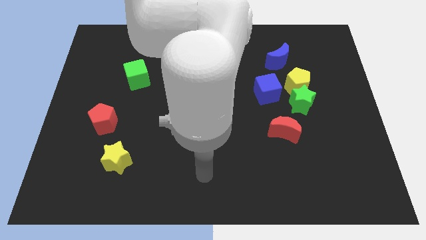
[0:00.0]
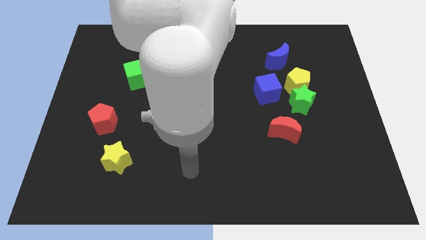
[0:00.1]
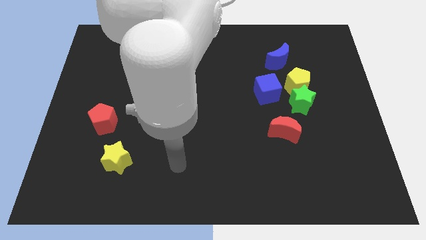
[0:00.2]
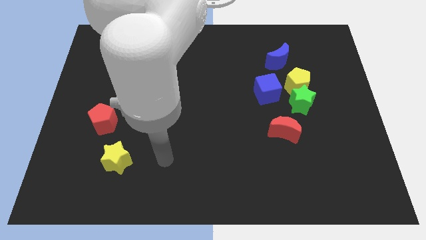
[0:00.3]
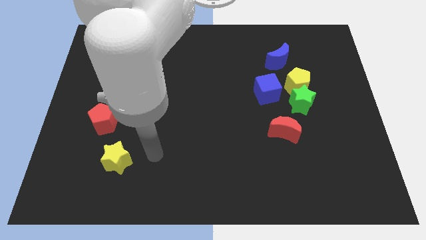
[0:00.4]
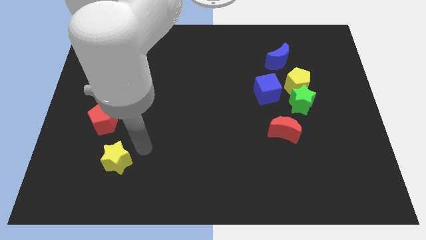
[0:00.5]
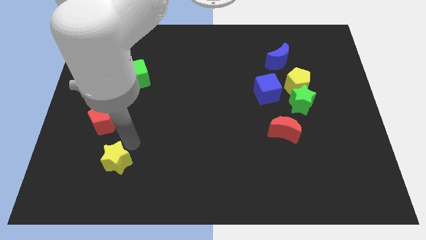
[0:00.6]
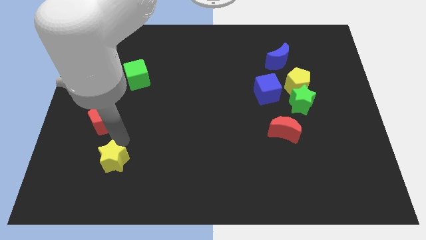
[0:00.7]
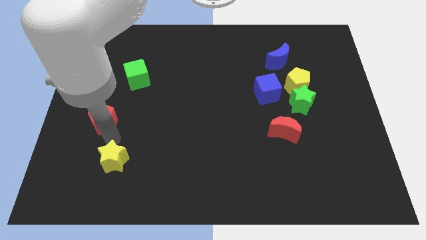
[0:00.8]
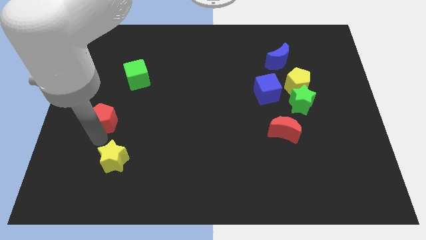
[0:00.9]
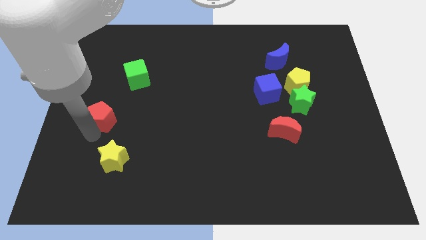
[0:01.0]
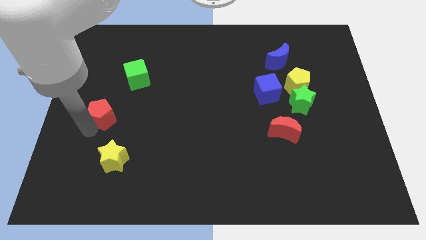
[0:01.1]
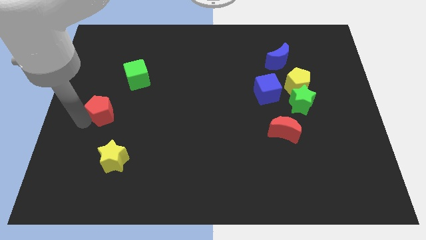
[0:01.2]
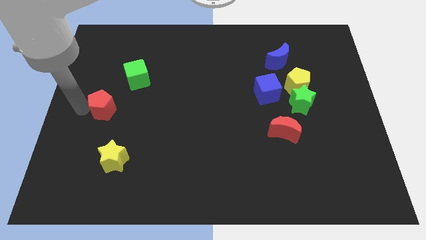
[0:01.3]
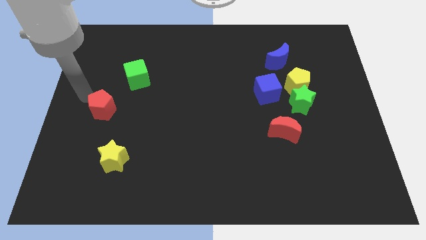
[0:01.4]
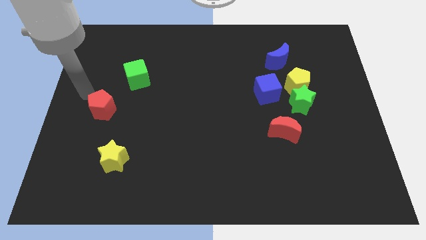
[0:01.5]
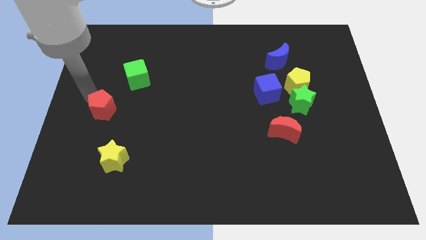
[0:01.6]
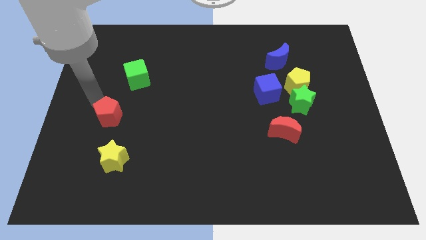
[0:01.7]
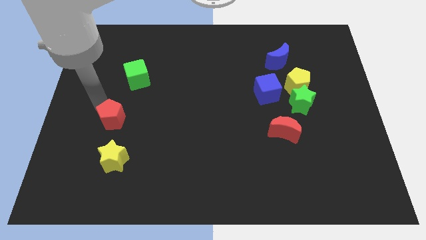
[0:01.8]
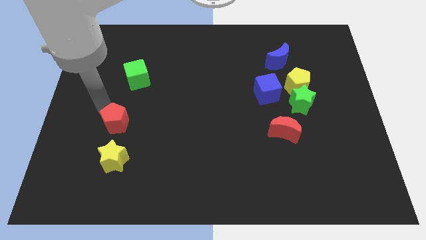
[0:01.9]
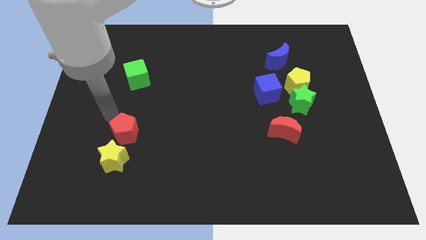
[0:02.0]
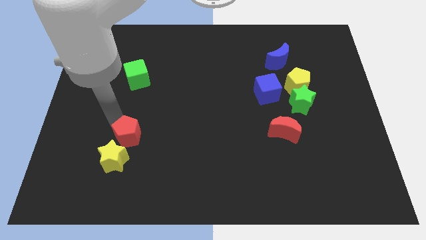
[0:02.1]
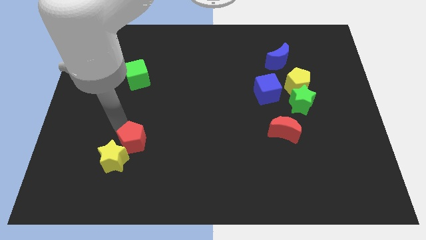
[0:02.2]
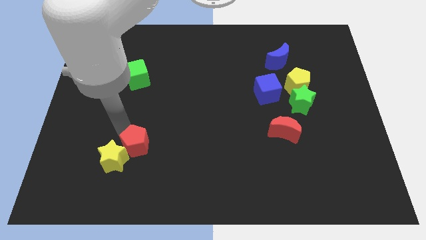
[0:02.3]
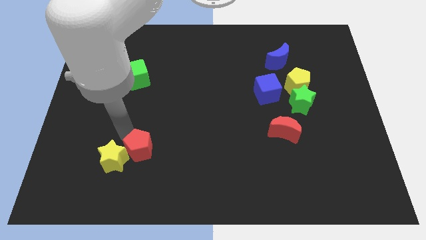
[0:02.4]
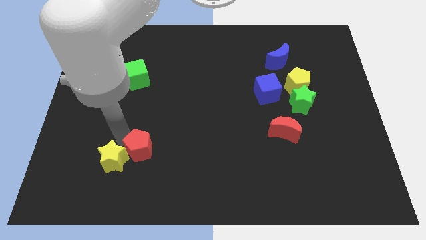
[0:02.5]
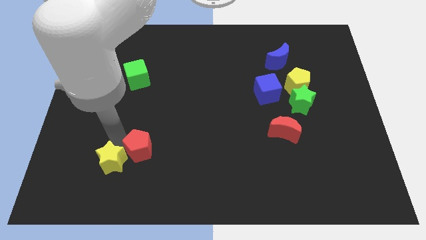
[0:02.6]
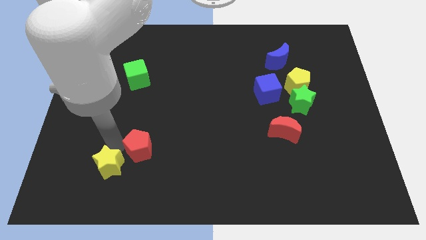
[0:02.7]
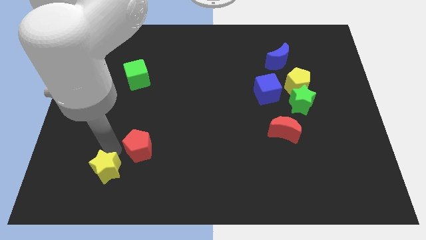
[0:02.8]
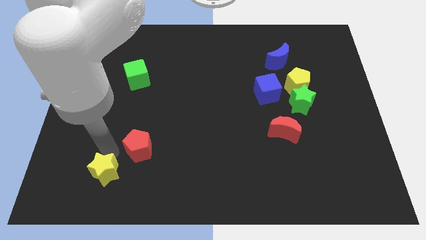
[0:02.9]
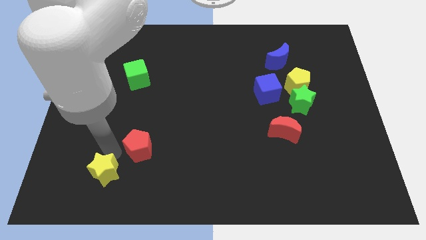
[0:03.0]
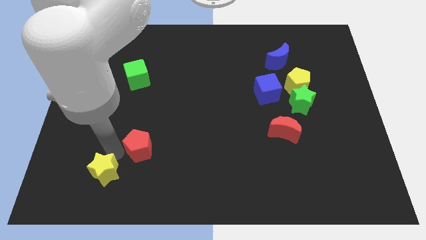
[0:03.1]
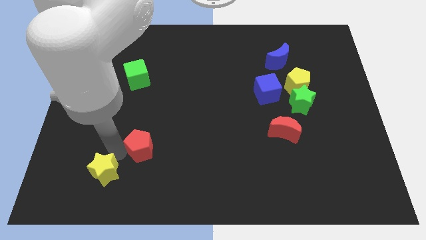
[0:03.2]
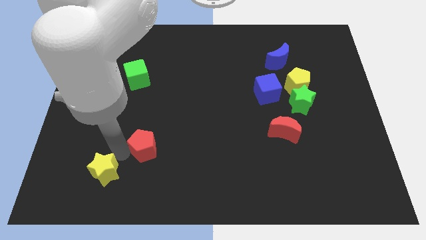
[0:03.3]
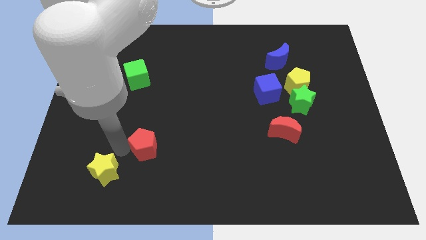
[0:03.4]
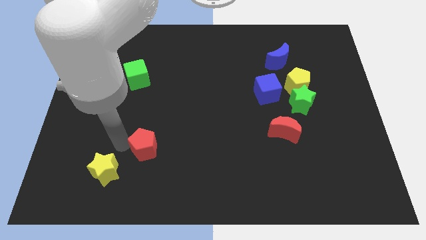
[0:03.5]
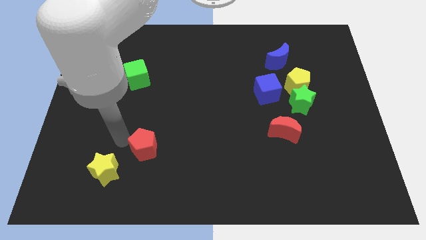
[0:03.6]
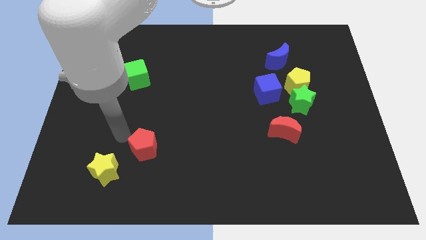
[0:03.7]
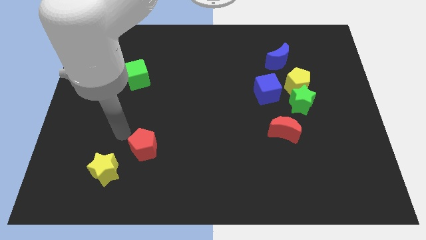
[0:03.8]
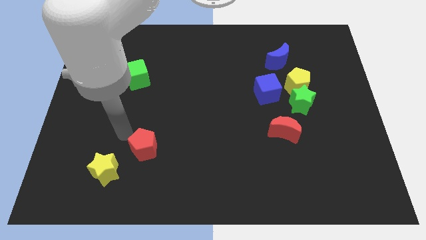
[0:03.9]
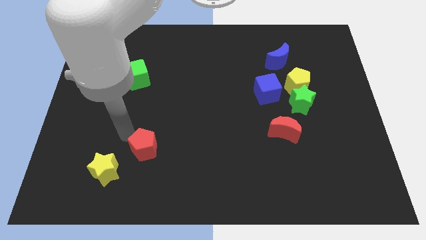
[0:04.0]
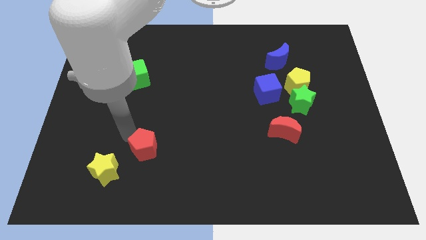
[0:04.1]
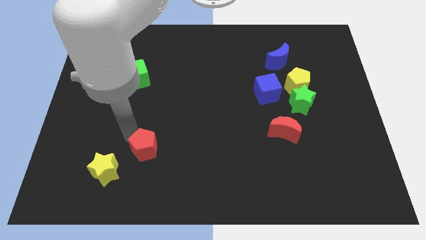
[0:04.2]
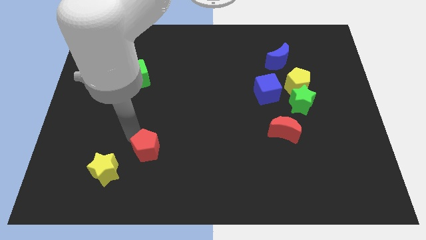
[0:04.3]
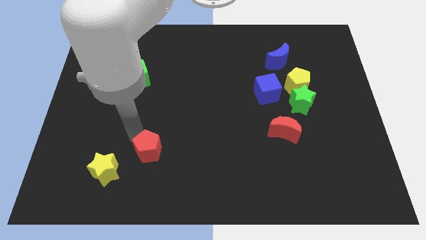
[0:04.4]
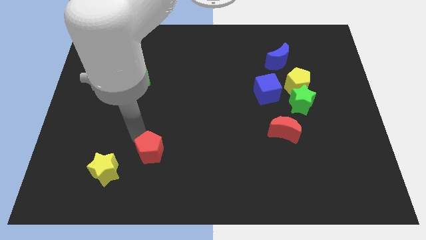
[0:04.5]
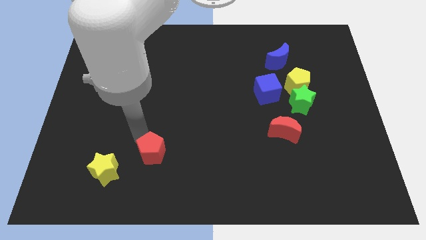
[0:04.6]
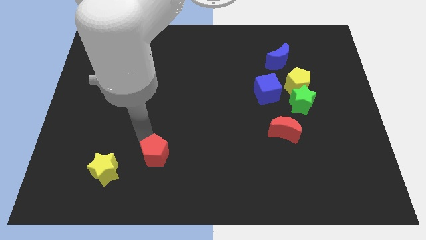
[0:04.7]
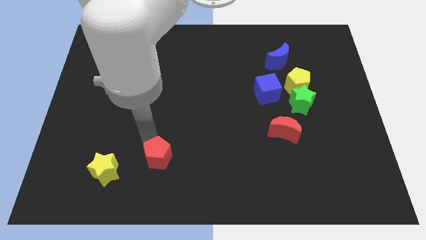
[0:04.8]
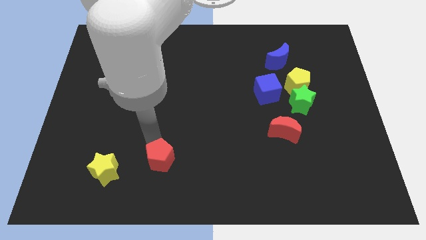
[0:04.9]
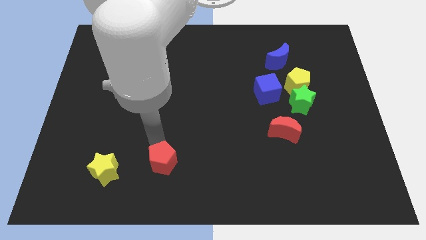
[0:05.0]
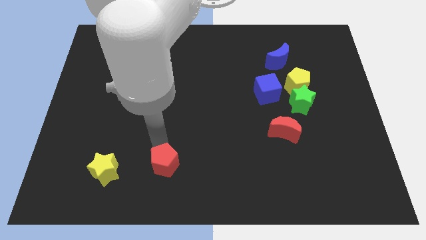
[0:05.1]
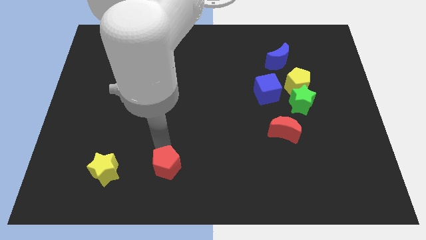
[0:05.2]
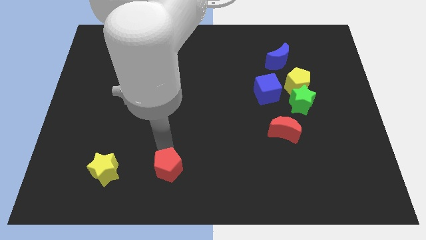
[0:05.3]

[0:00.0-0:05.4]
move the red pentagon to the bottom side

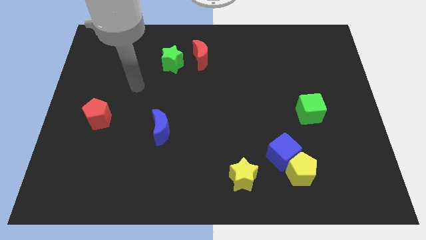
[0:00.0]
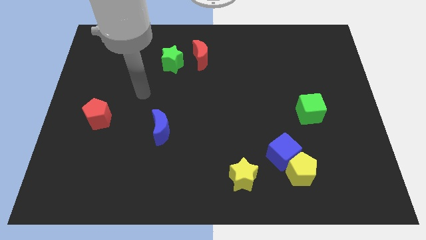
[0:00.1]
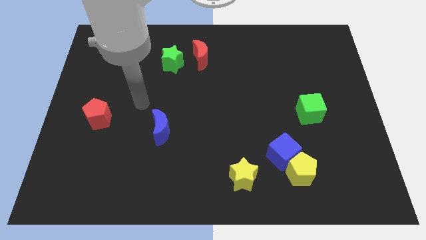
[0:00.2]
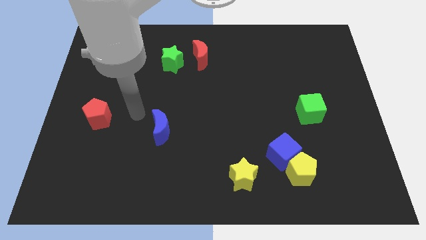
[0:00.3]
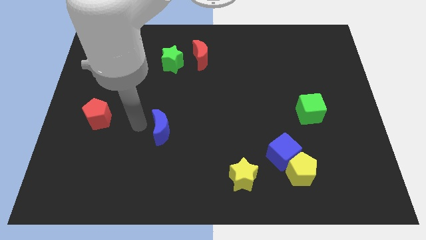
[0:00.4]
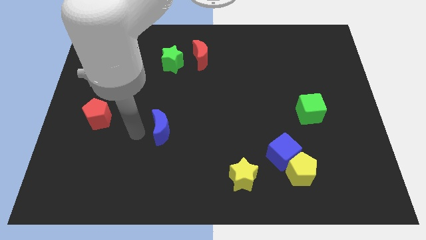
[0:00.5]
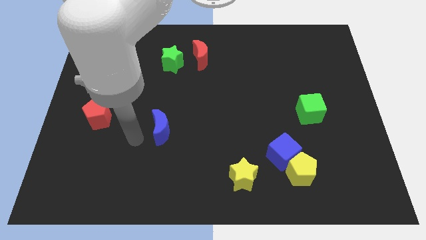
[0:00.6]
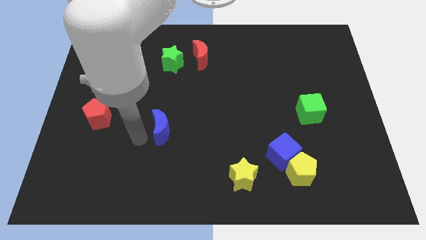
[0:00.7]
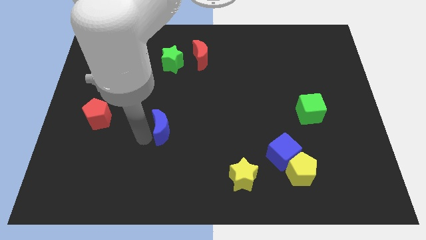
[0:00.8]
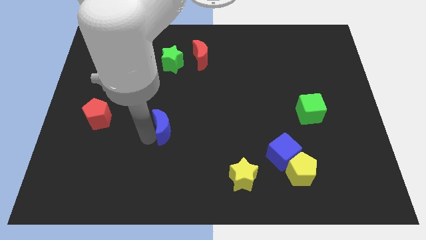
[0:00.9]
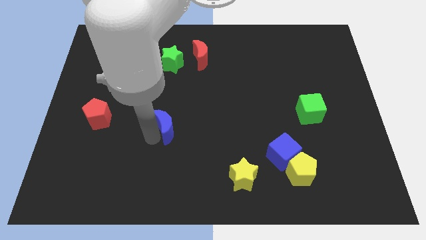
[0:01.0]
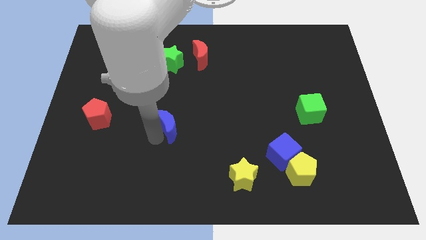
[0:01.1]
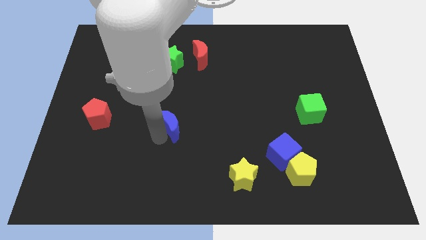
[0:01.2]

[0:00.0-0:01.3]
put the blue moon to the middle
